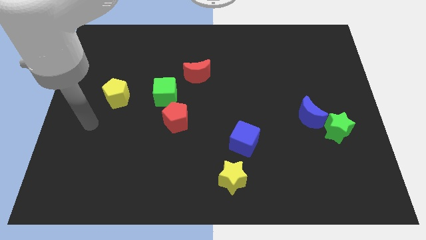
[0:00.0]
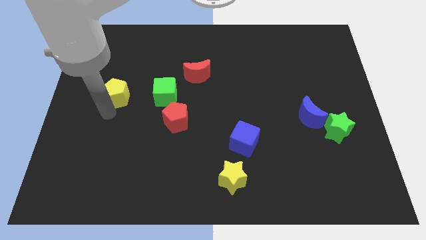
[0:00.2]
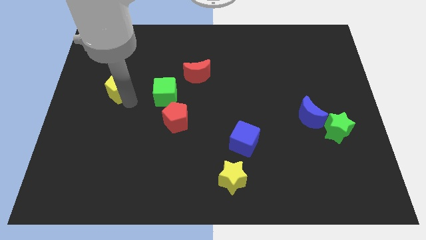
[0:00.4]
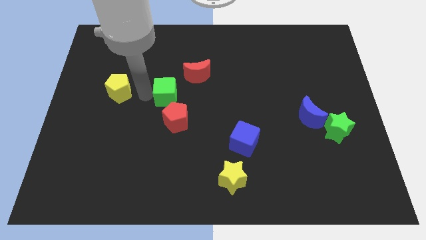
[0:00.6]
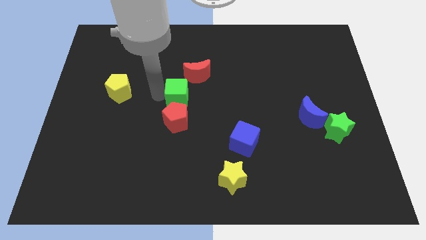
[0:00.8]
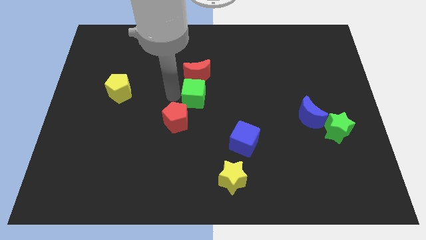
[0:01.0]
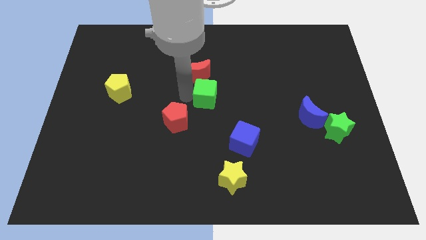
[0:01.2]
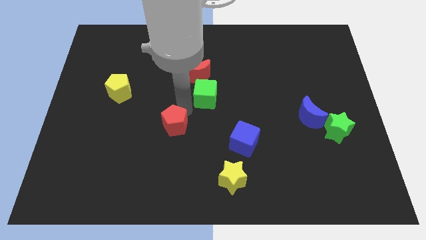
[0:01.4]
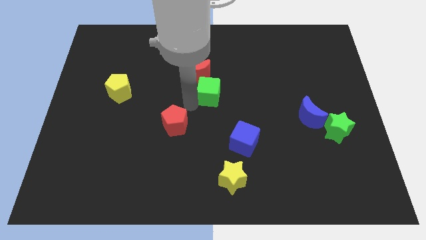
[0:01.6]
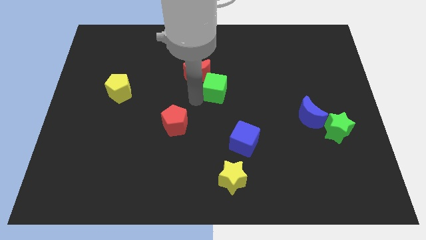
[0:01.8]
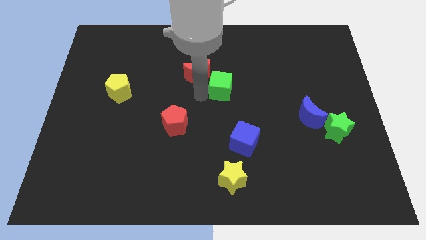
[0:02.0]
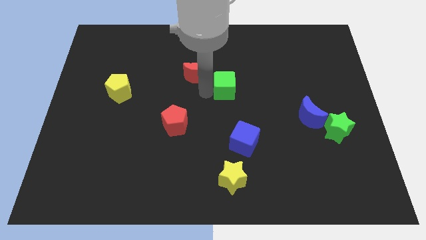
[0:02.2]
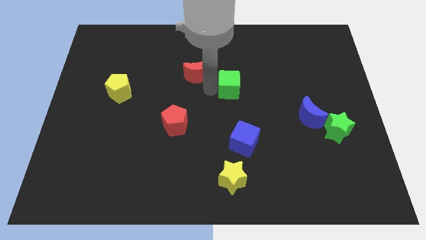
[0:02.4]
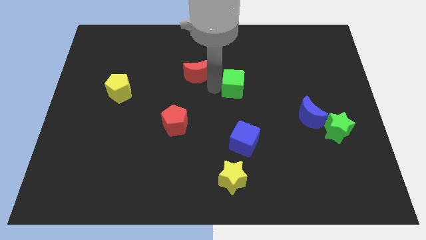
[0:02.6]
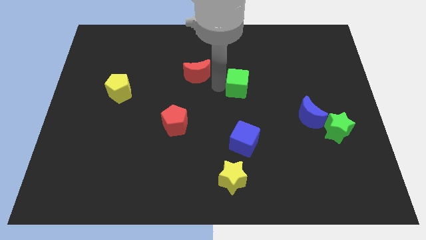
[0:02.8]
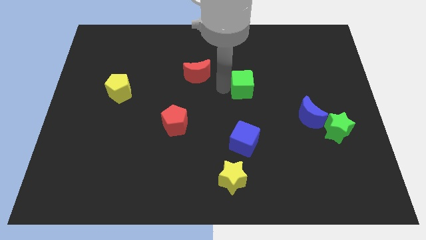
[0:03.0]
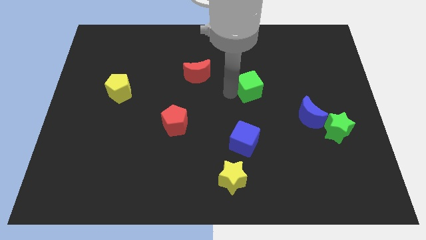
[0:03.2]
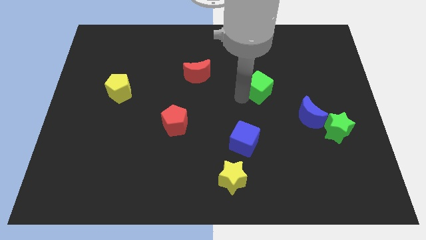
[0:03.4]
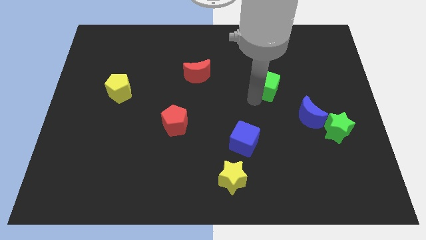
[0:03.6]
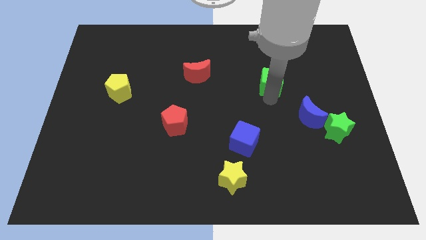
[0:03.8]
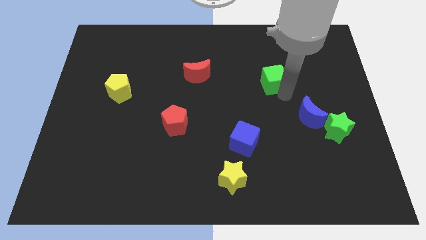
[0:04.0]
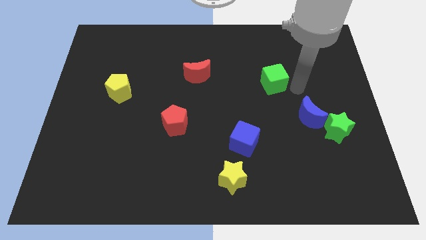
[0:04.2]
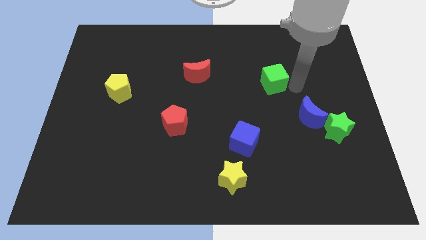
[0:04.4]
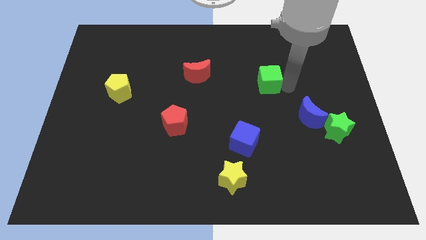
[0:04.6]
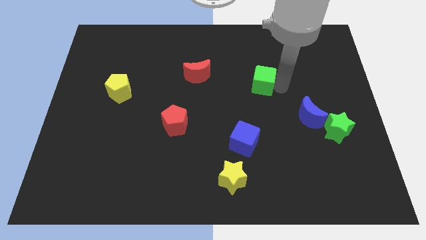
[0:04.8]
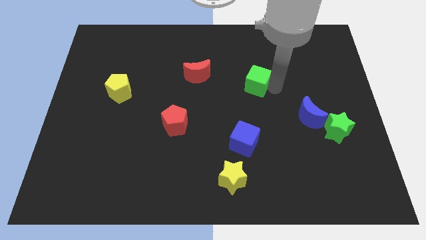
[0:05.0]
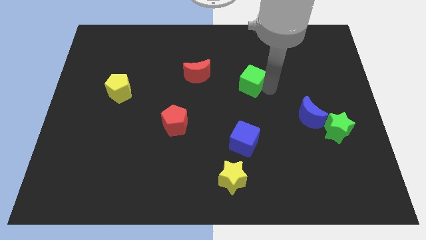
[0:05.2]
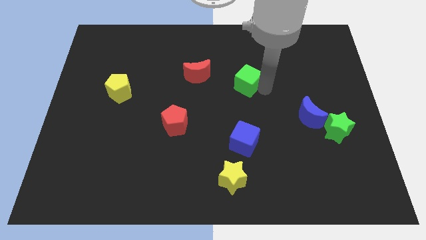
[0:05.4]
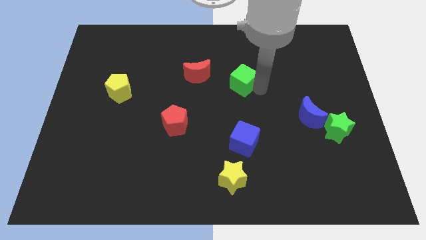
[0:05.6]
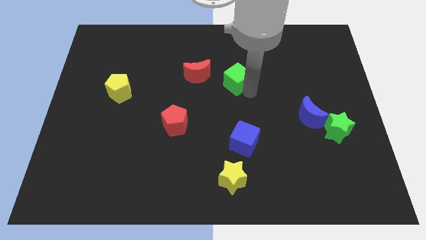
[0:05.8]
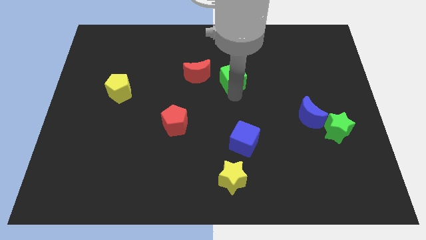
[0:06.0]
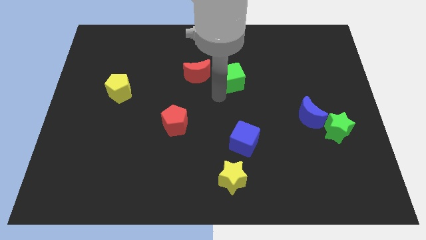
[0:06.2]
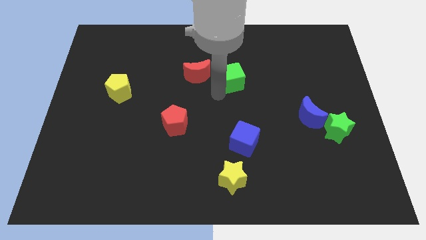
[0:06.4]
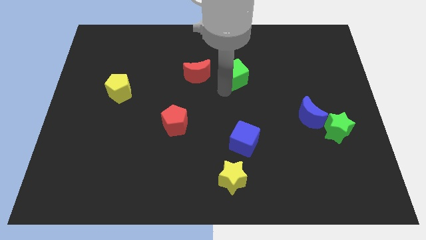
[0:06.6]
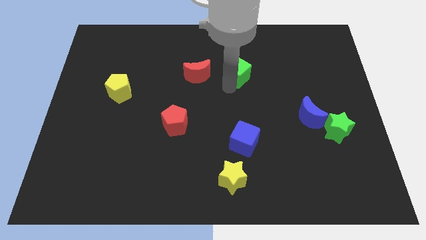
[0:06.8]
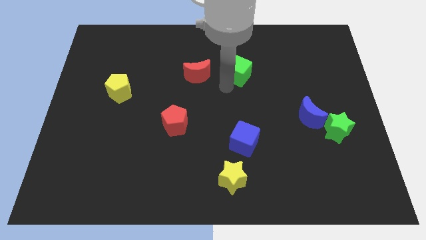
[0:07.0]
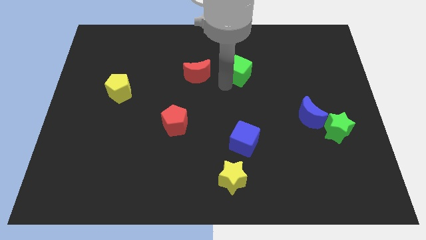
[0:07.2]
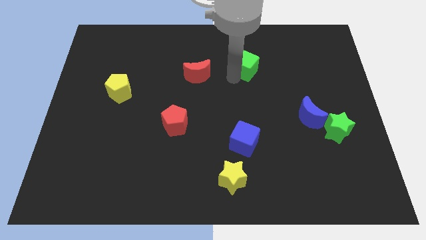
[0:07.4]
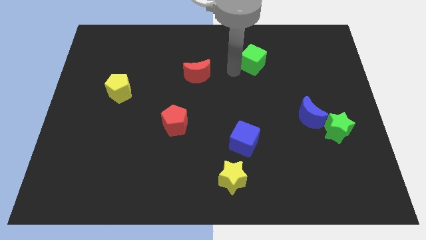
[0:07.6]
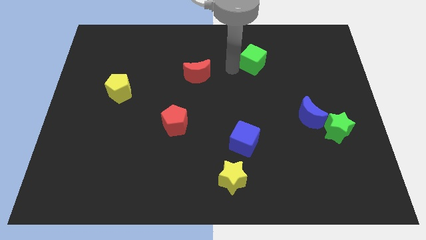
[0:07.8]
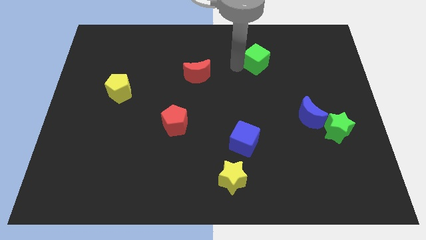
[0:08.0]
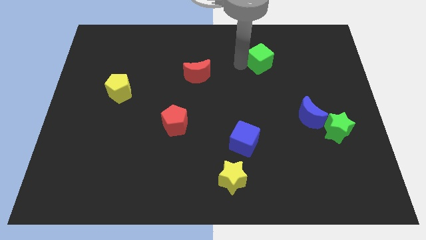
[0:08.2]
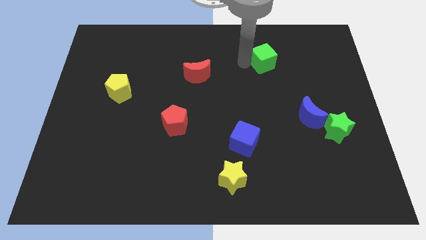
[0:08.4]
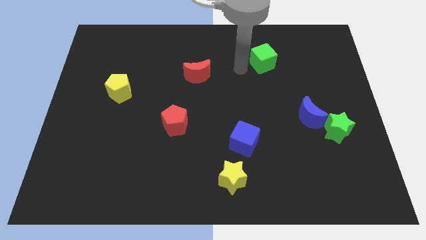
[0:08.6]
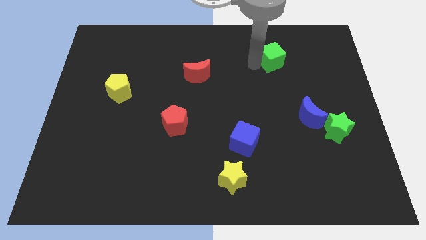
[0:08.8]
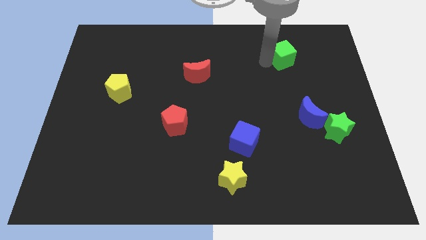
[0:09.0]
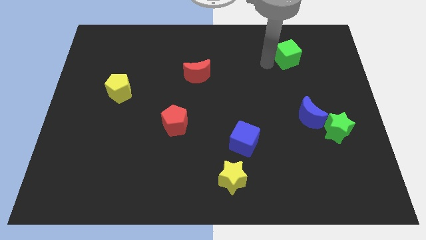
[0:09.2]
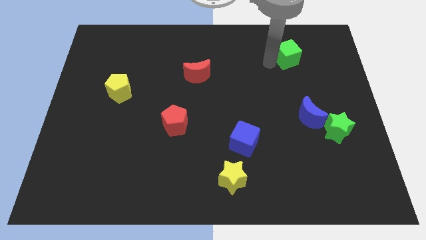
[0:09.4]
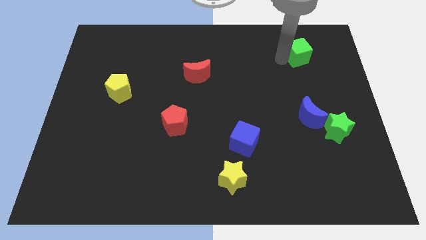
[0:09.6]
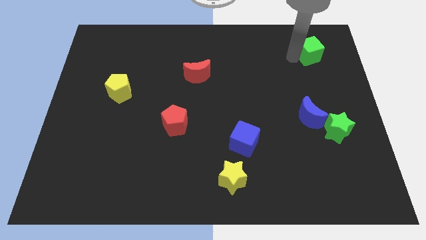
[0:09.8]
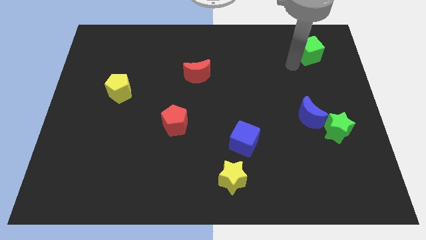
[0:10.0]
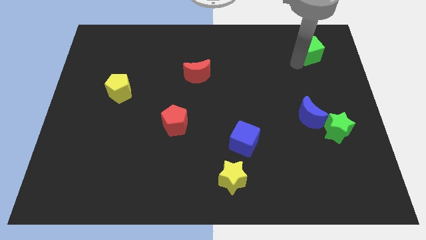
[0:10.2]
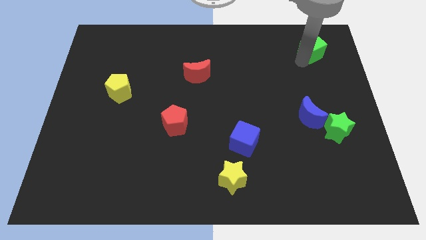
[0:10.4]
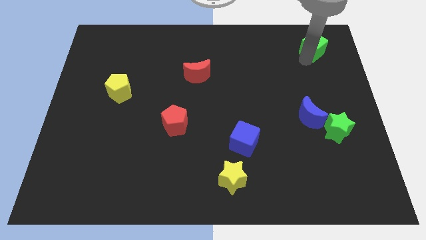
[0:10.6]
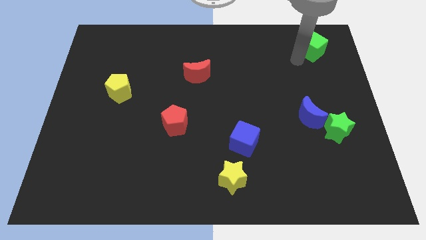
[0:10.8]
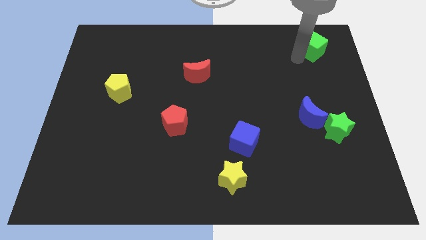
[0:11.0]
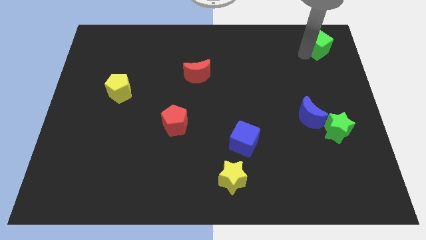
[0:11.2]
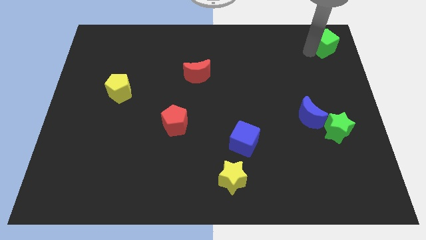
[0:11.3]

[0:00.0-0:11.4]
push the green cube to the top right of the board

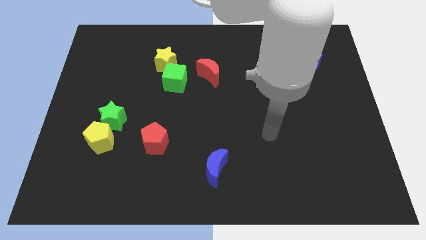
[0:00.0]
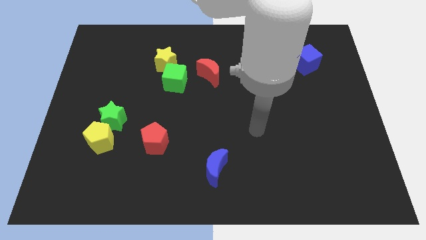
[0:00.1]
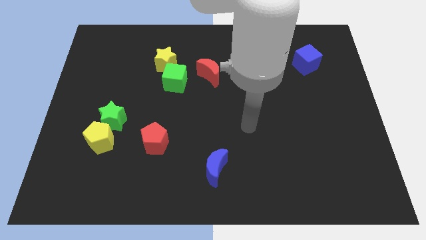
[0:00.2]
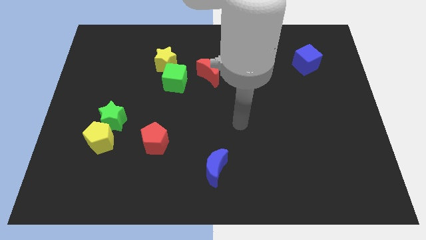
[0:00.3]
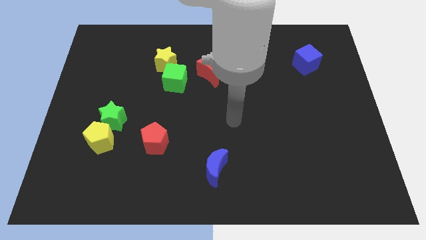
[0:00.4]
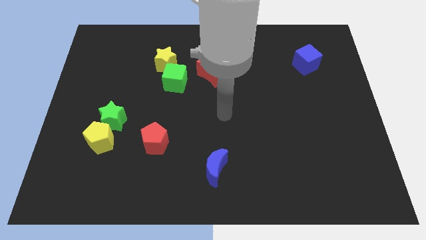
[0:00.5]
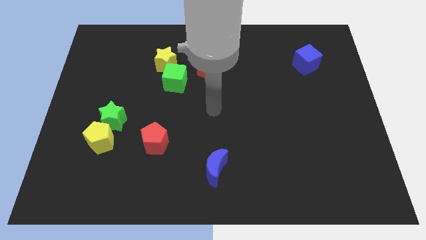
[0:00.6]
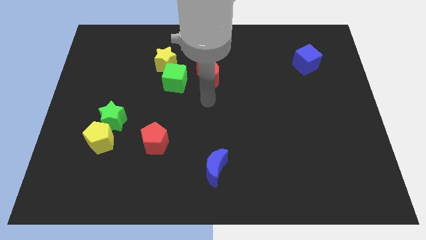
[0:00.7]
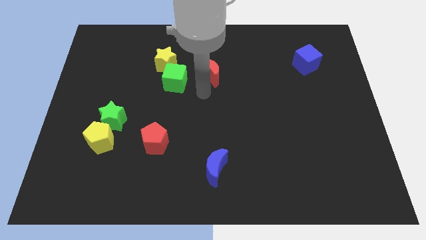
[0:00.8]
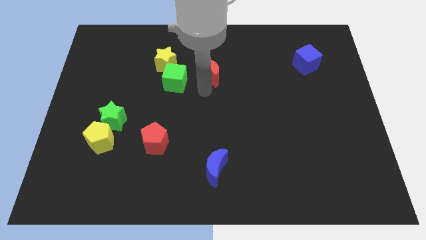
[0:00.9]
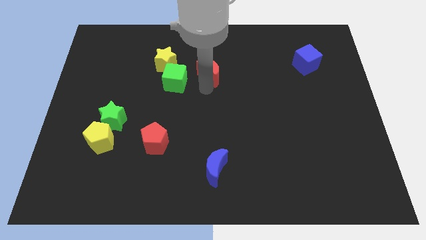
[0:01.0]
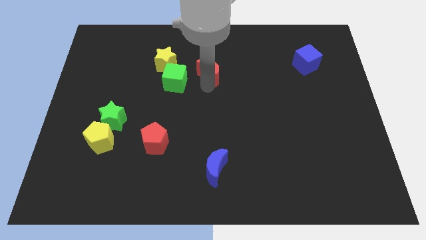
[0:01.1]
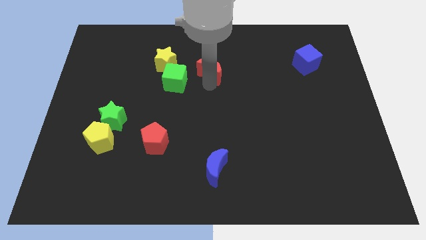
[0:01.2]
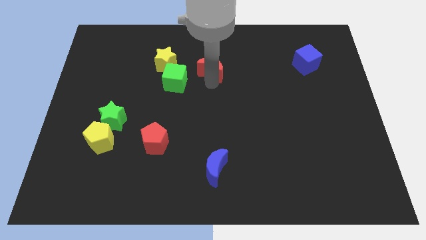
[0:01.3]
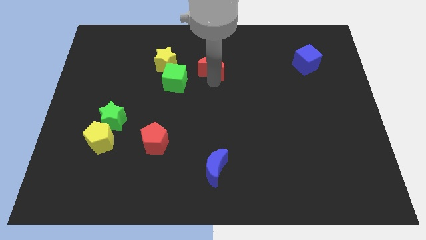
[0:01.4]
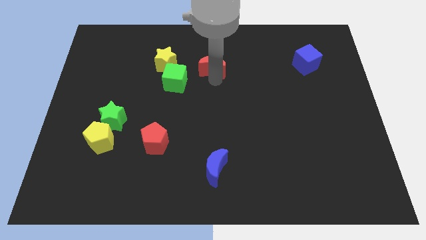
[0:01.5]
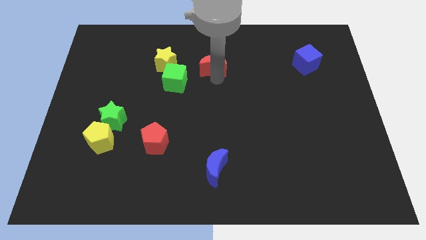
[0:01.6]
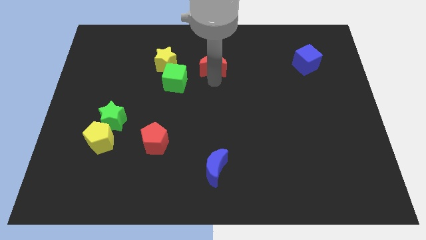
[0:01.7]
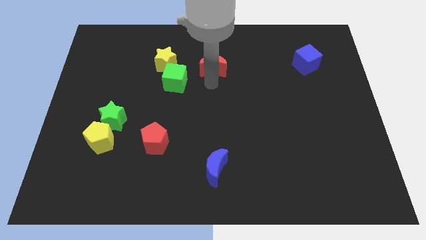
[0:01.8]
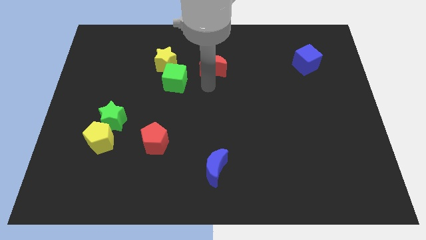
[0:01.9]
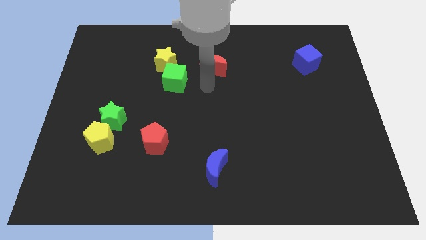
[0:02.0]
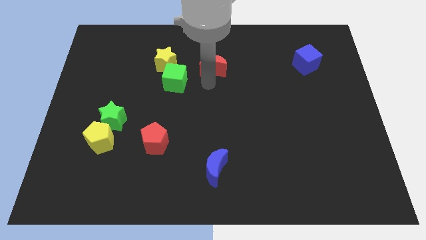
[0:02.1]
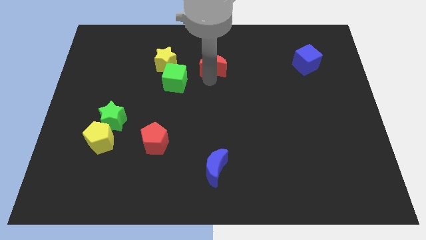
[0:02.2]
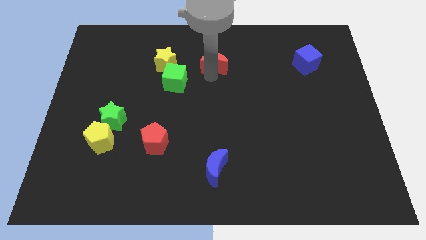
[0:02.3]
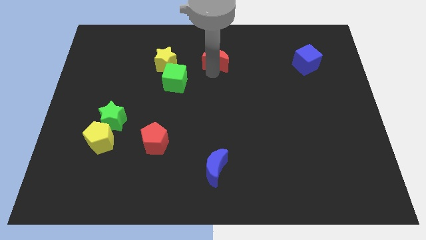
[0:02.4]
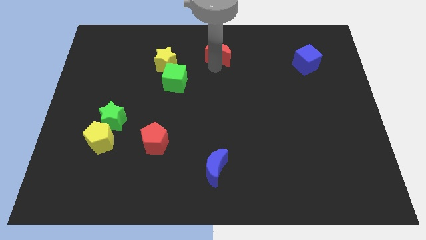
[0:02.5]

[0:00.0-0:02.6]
push the red moon to the towards your base
